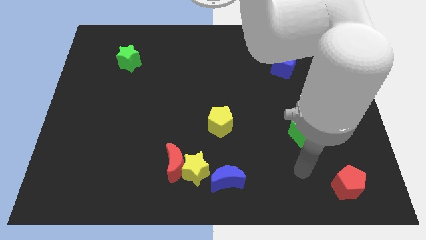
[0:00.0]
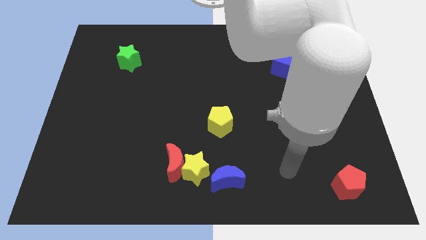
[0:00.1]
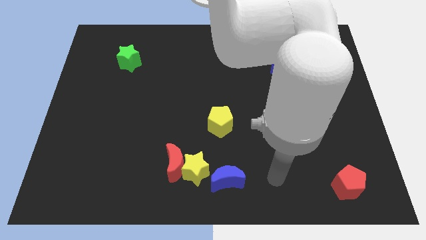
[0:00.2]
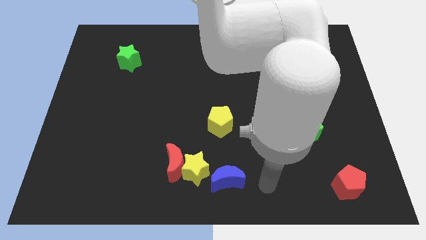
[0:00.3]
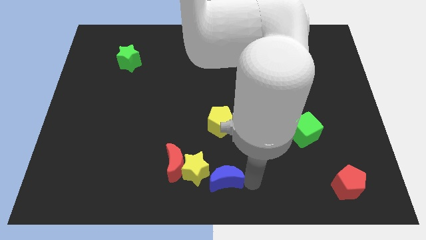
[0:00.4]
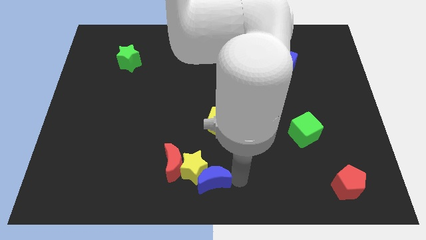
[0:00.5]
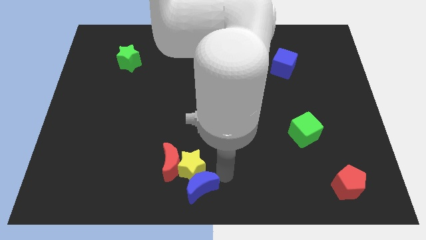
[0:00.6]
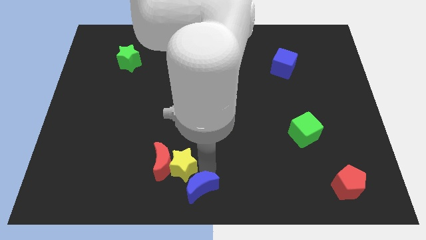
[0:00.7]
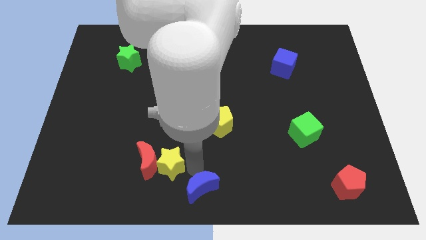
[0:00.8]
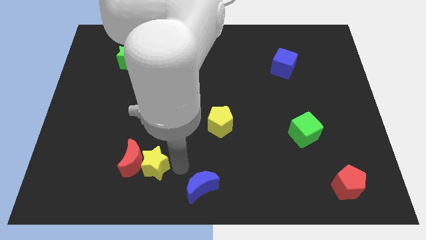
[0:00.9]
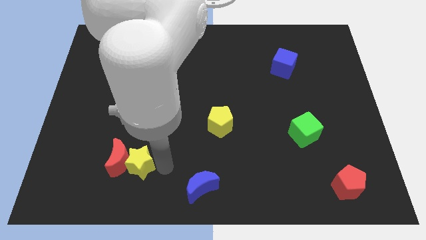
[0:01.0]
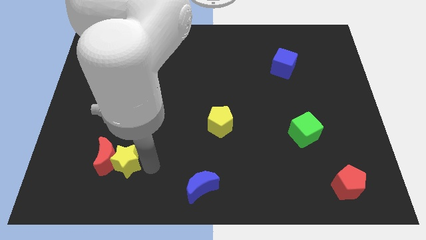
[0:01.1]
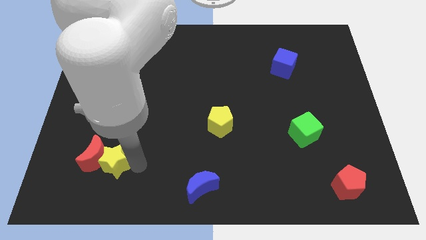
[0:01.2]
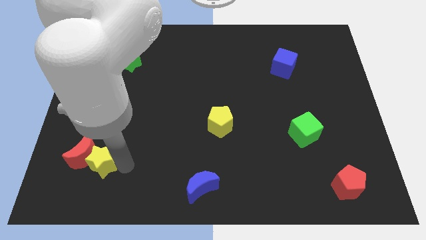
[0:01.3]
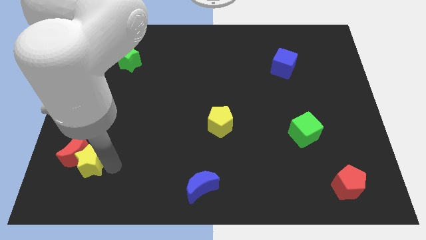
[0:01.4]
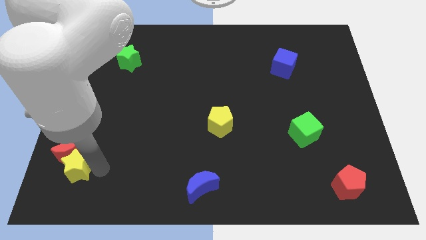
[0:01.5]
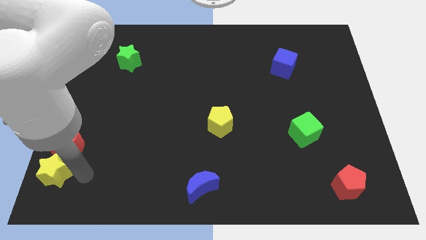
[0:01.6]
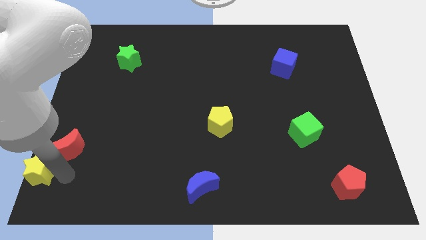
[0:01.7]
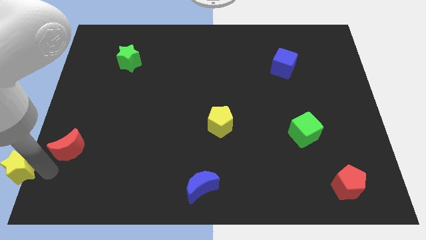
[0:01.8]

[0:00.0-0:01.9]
move the red moon away from the yellow star

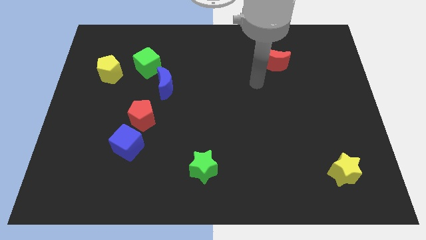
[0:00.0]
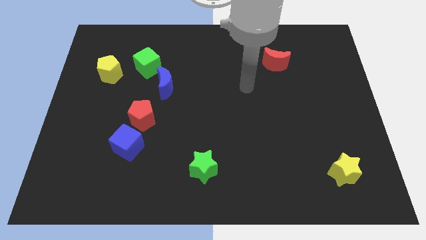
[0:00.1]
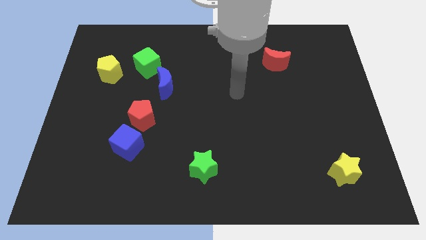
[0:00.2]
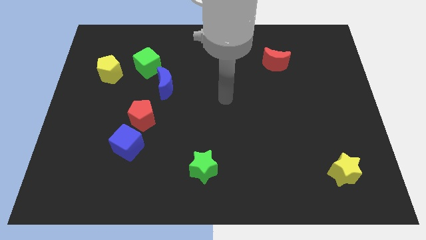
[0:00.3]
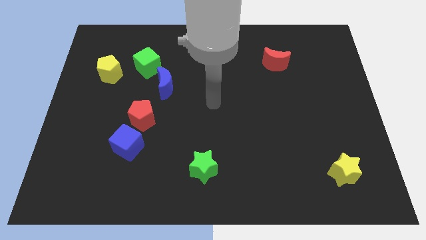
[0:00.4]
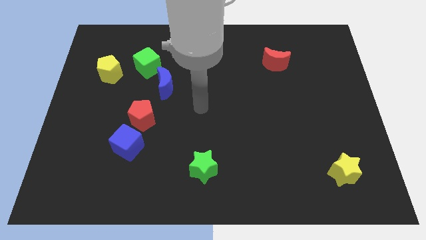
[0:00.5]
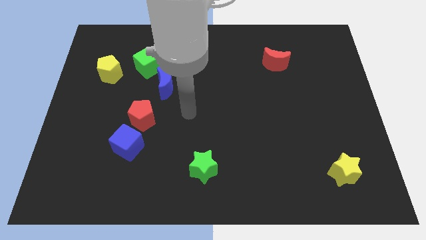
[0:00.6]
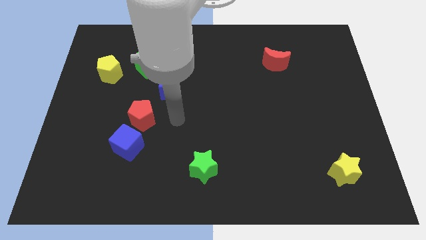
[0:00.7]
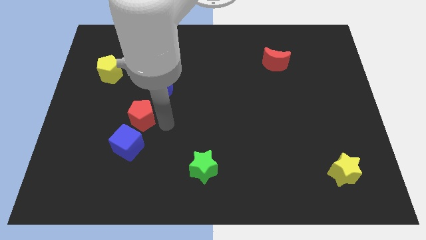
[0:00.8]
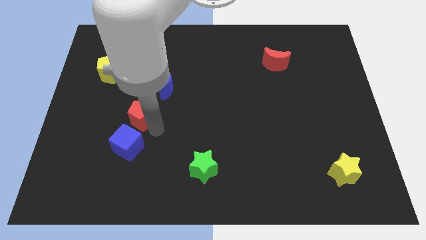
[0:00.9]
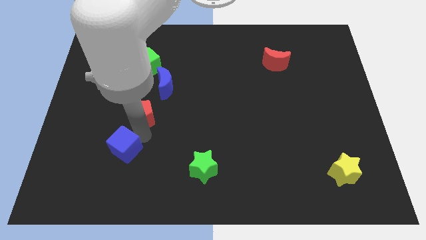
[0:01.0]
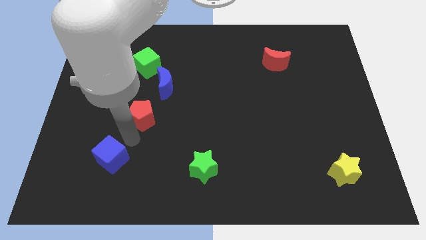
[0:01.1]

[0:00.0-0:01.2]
move the red pentagon away from the blue cube

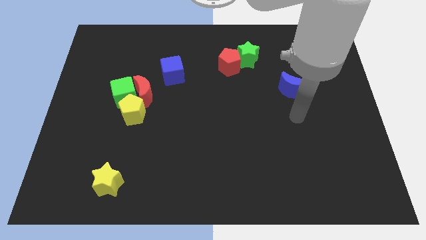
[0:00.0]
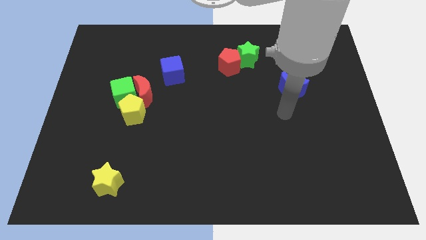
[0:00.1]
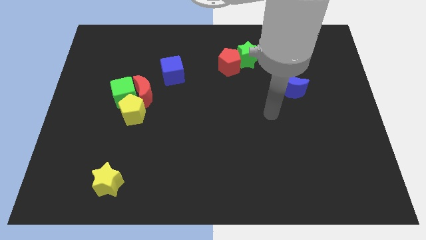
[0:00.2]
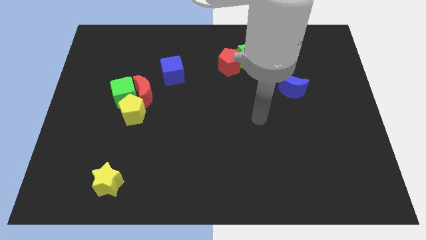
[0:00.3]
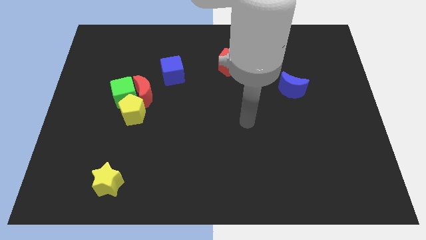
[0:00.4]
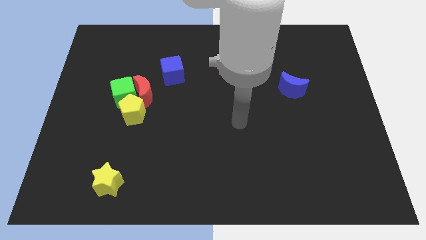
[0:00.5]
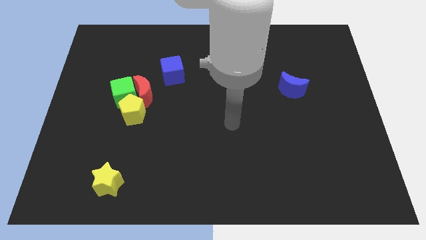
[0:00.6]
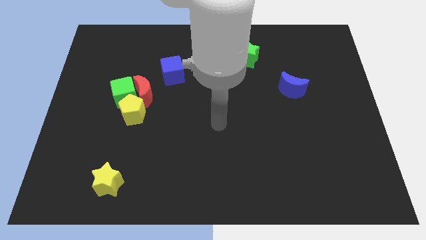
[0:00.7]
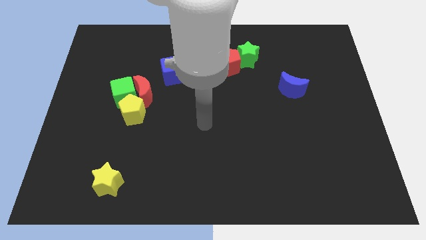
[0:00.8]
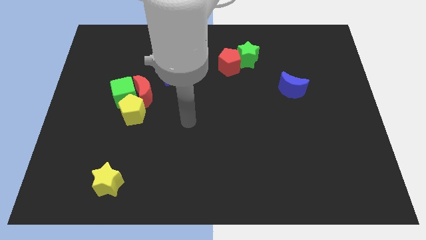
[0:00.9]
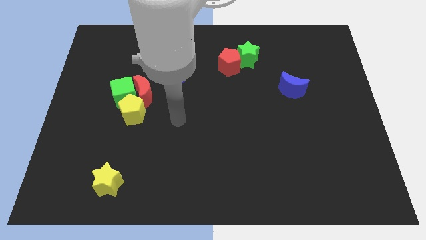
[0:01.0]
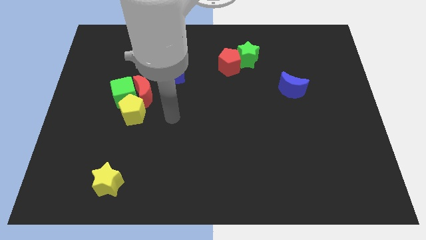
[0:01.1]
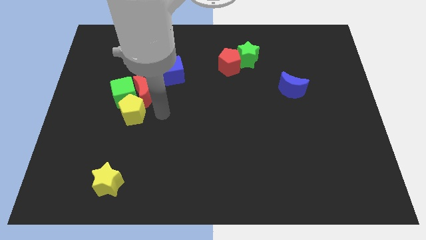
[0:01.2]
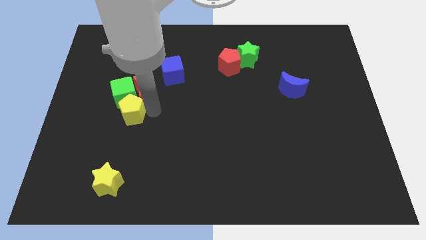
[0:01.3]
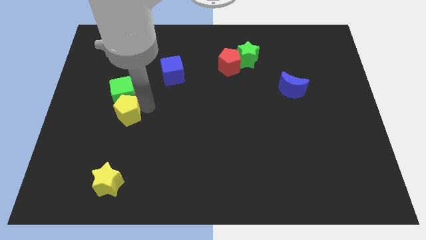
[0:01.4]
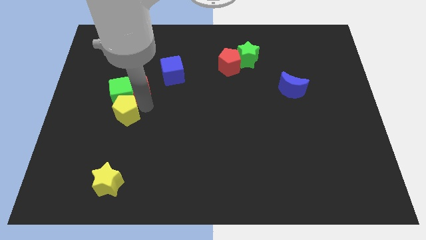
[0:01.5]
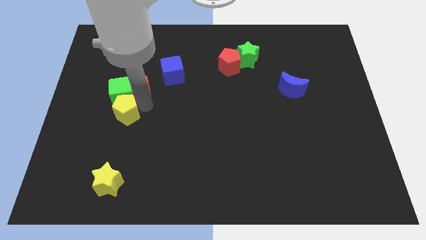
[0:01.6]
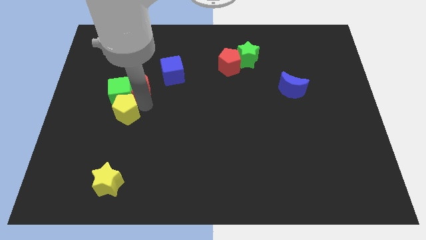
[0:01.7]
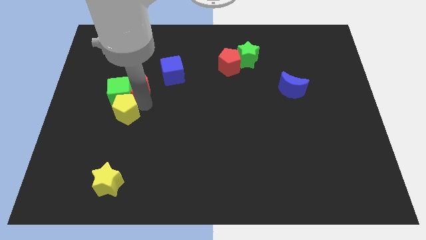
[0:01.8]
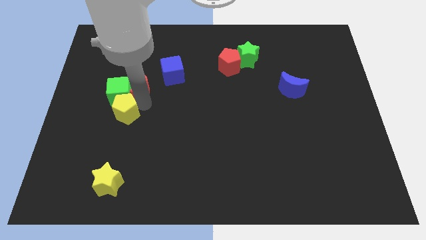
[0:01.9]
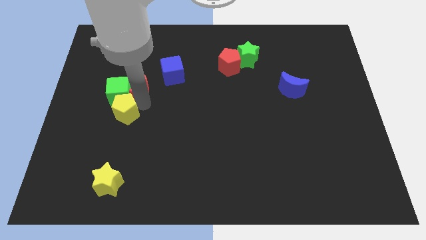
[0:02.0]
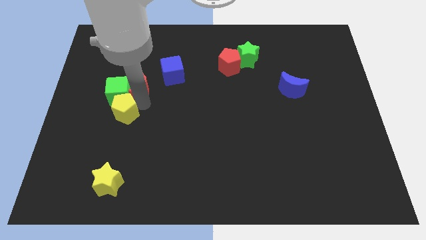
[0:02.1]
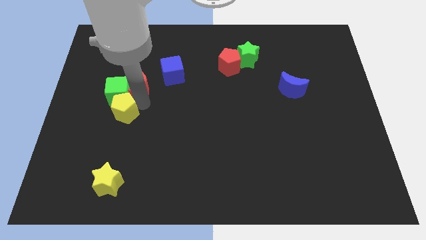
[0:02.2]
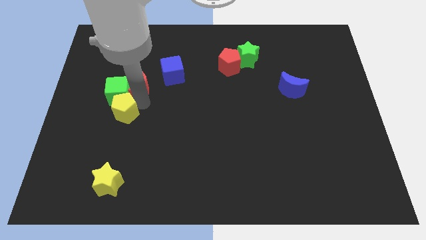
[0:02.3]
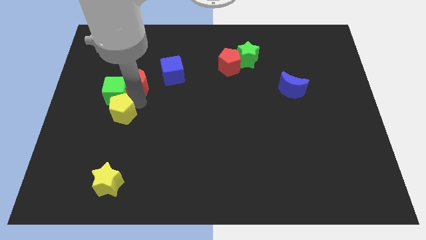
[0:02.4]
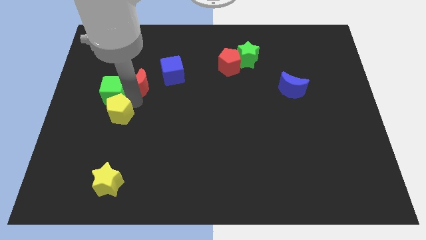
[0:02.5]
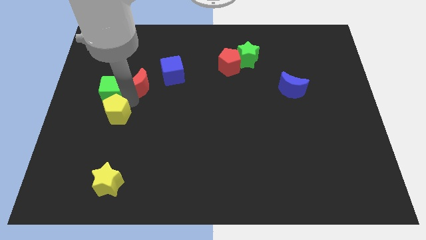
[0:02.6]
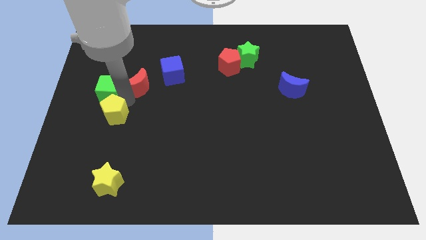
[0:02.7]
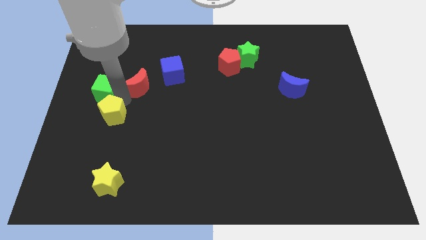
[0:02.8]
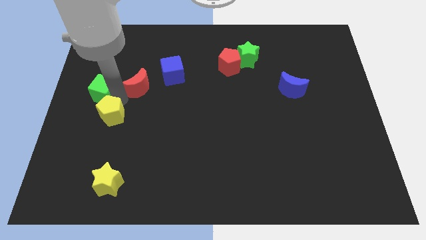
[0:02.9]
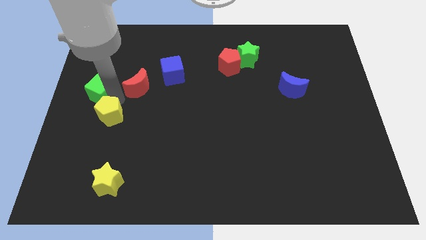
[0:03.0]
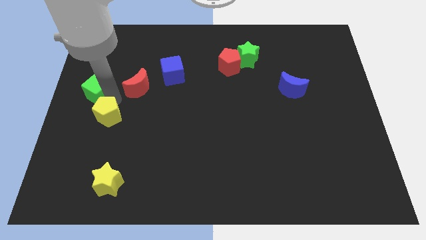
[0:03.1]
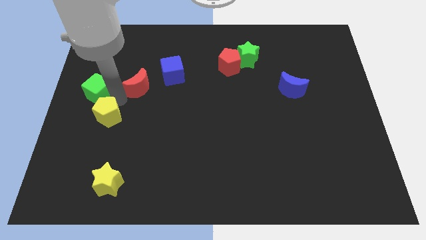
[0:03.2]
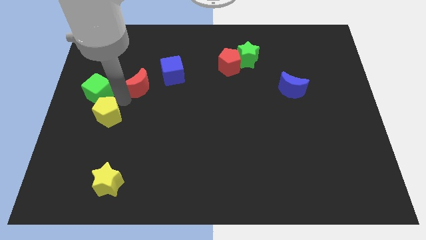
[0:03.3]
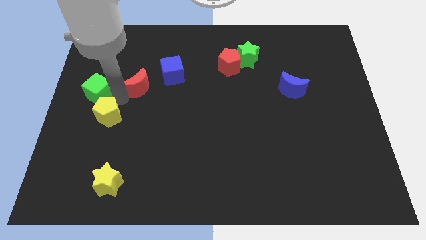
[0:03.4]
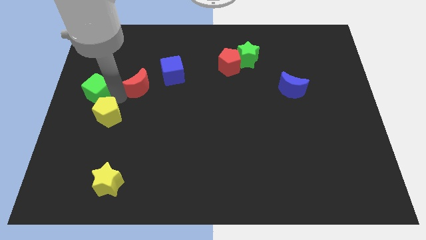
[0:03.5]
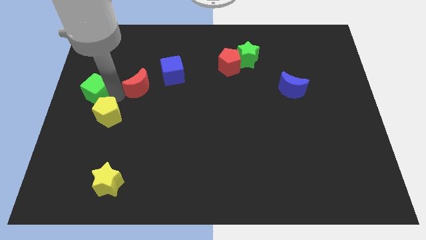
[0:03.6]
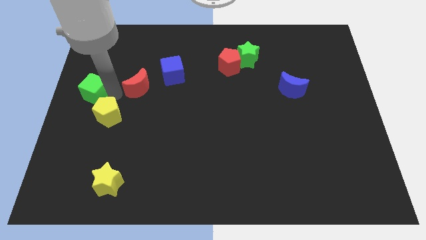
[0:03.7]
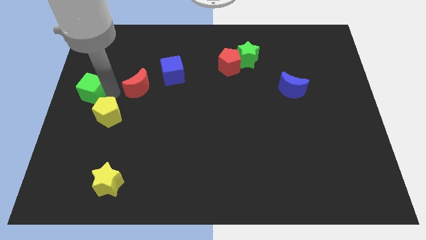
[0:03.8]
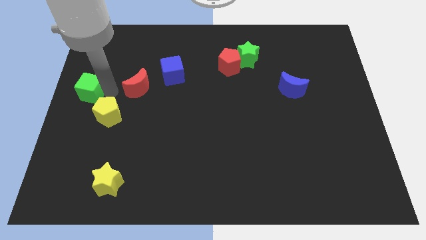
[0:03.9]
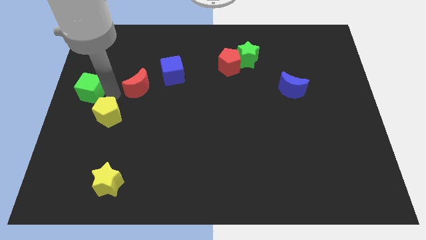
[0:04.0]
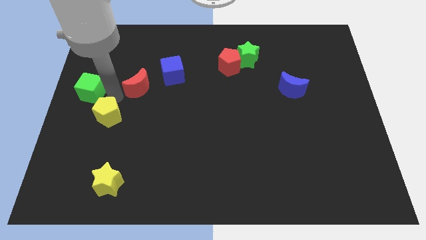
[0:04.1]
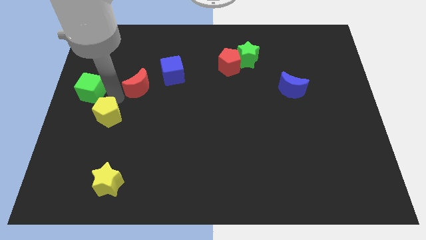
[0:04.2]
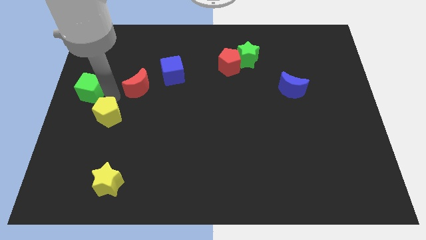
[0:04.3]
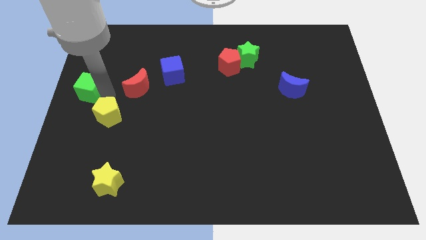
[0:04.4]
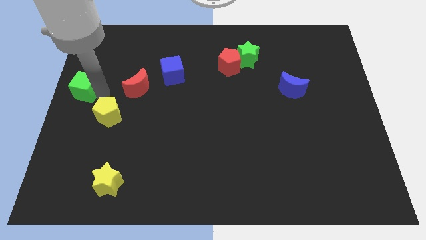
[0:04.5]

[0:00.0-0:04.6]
pull the green cube apart from the red moon and yellow pentagon

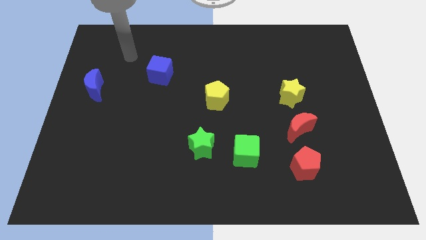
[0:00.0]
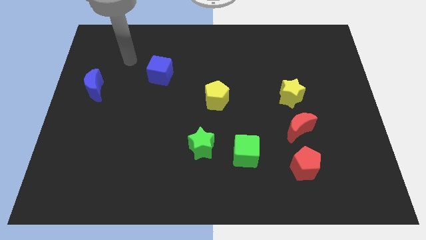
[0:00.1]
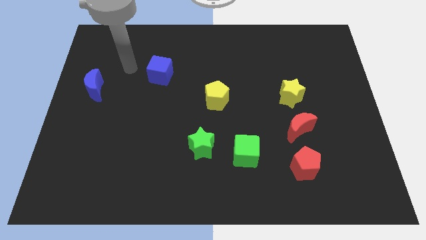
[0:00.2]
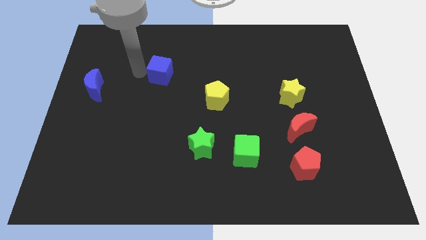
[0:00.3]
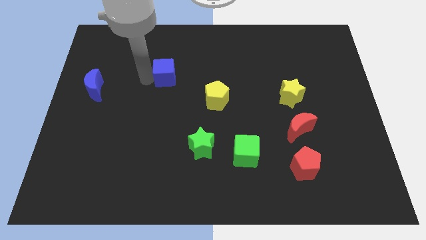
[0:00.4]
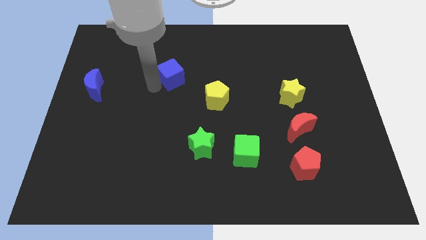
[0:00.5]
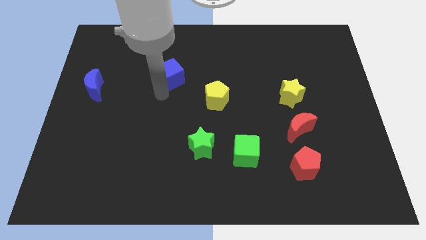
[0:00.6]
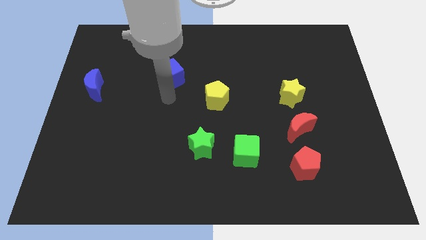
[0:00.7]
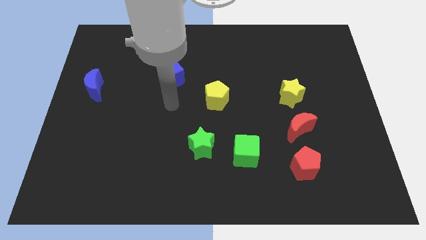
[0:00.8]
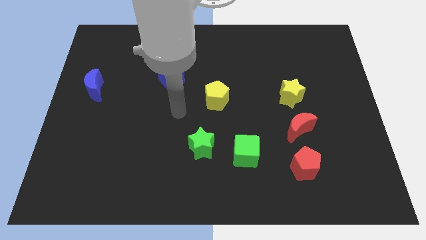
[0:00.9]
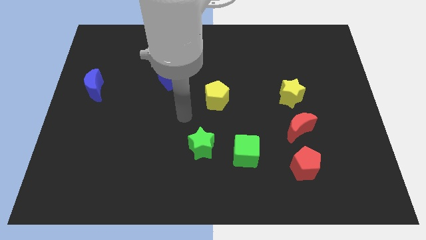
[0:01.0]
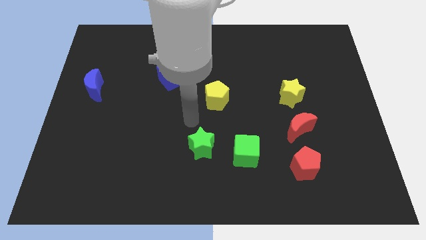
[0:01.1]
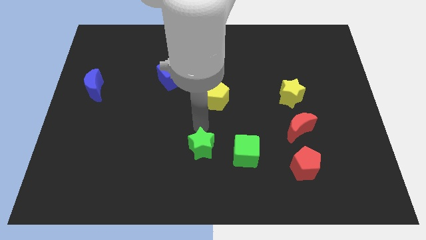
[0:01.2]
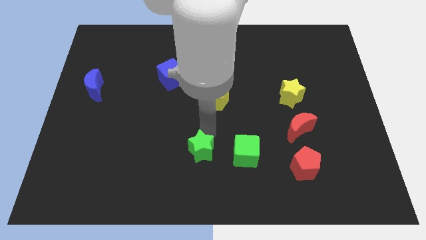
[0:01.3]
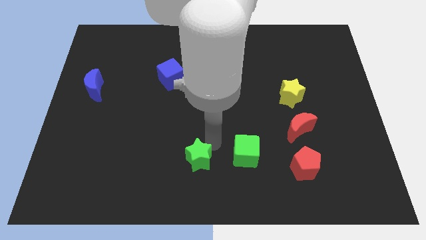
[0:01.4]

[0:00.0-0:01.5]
separate the green cube from the green star

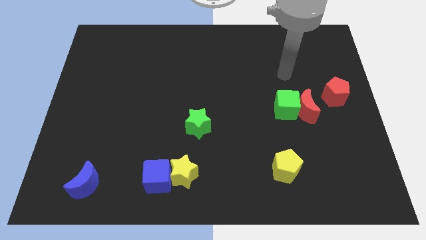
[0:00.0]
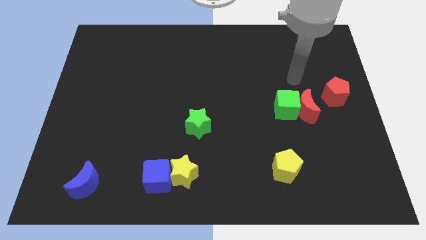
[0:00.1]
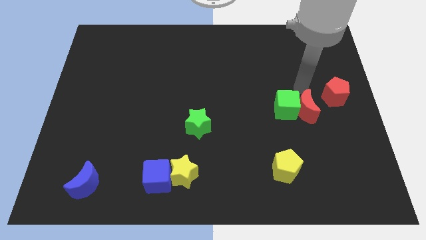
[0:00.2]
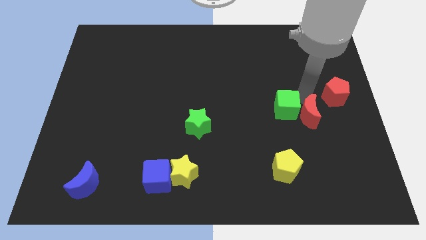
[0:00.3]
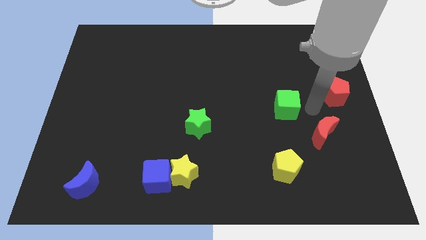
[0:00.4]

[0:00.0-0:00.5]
move the green cube away from the red moon
